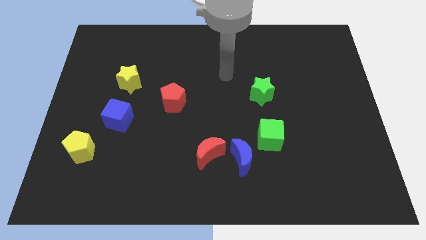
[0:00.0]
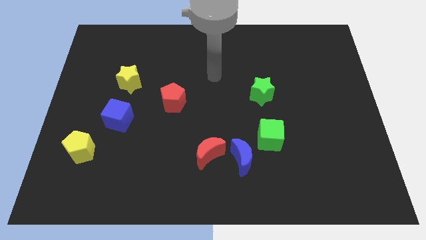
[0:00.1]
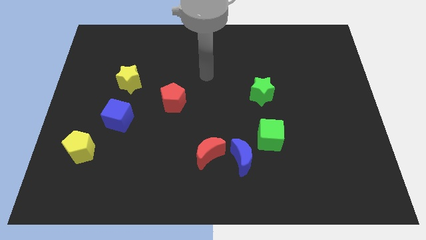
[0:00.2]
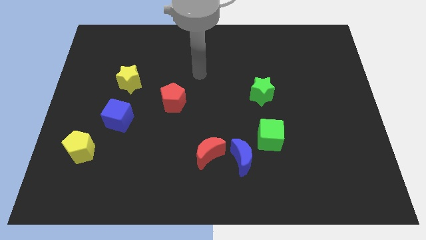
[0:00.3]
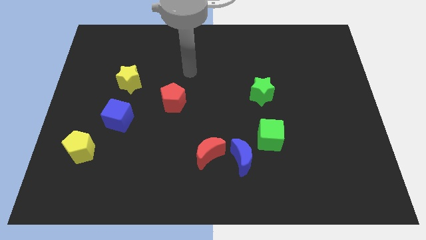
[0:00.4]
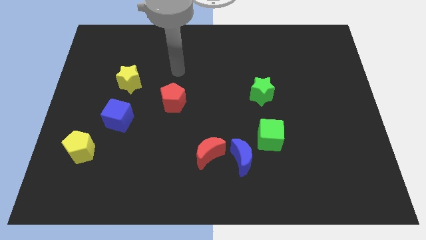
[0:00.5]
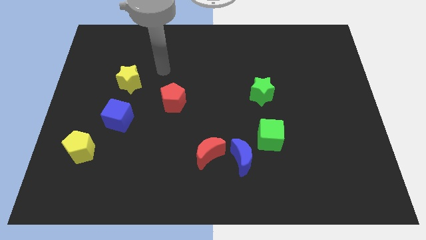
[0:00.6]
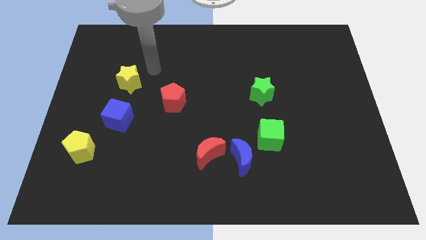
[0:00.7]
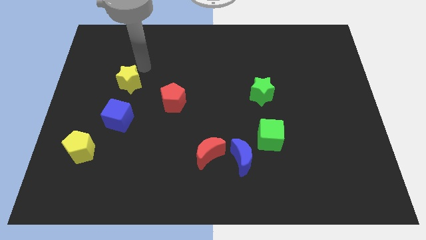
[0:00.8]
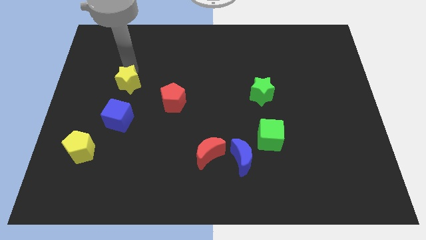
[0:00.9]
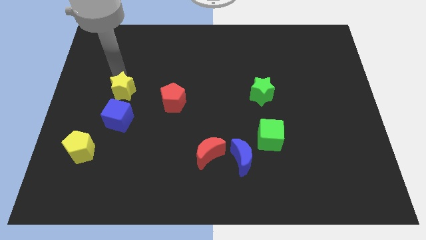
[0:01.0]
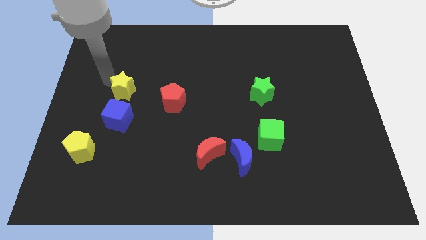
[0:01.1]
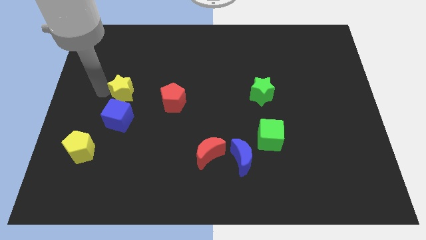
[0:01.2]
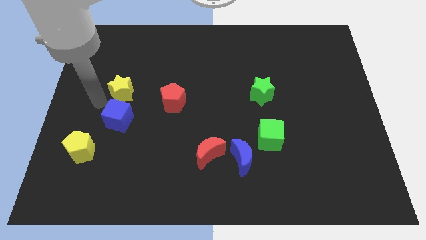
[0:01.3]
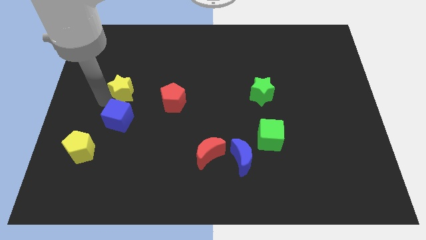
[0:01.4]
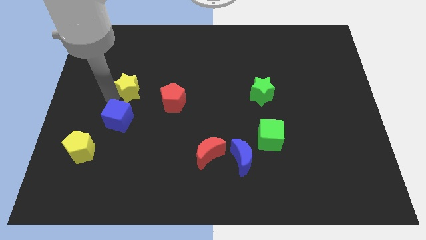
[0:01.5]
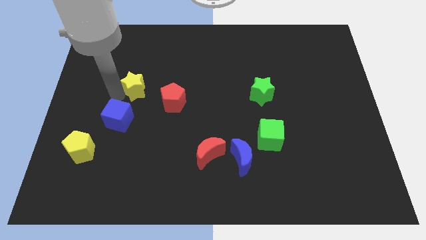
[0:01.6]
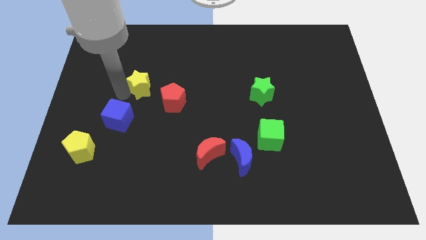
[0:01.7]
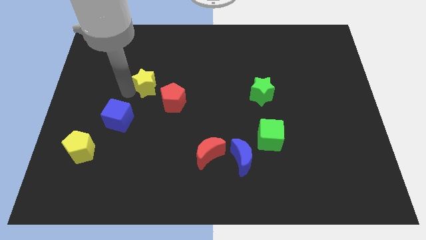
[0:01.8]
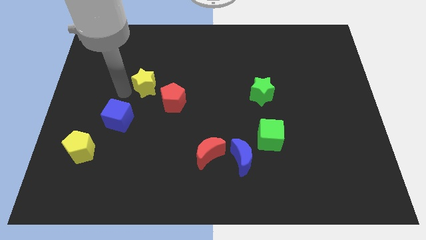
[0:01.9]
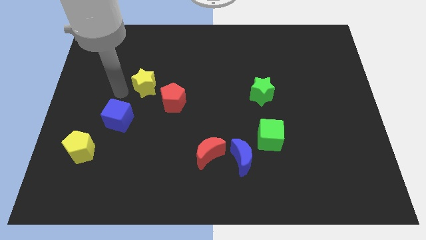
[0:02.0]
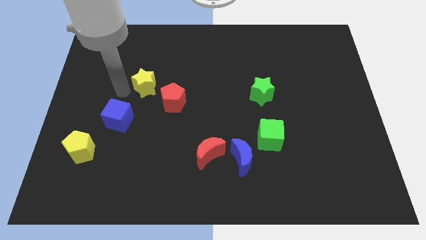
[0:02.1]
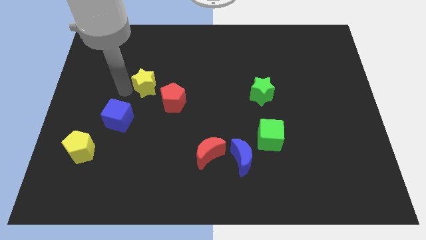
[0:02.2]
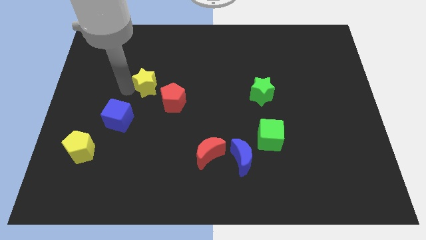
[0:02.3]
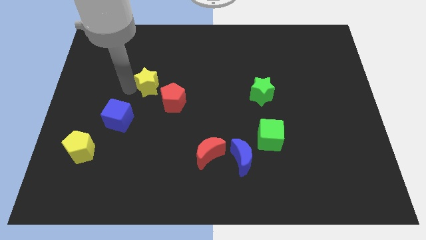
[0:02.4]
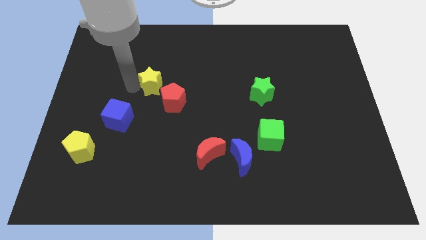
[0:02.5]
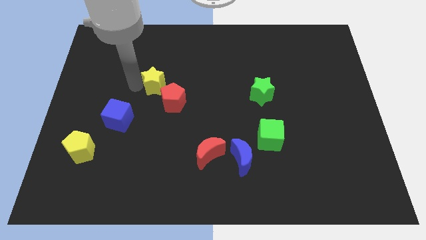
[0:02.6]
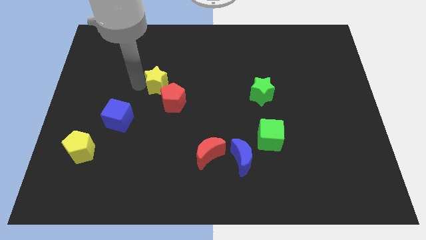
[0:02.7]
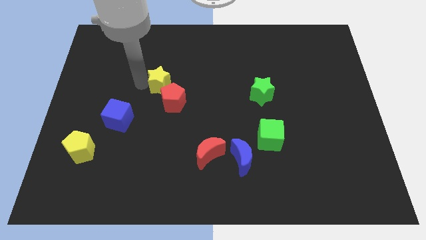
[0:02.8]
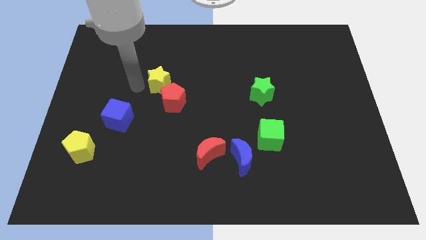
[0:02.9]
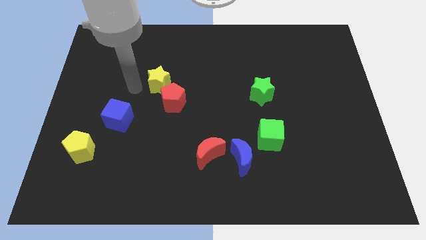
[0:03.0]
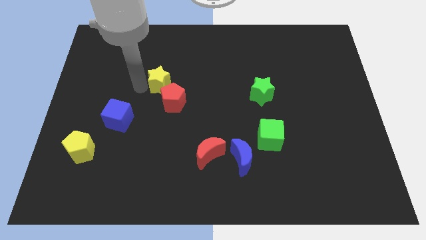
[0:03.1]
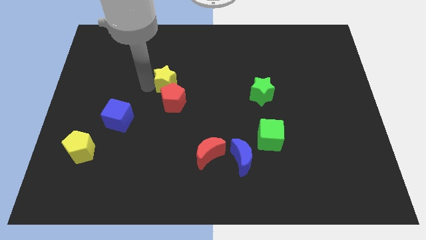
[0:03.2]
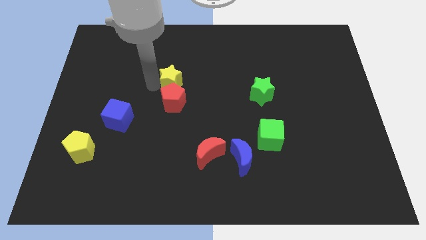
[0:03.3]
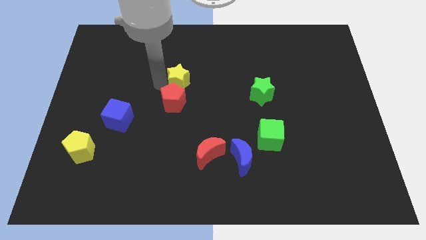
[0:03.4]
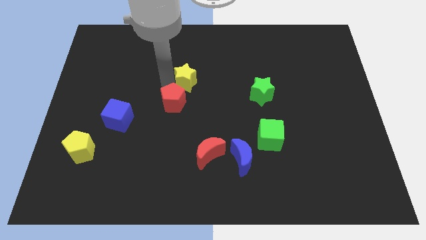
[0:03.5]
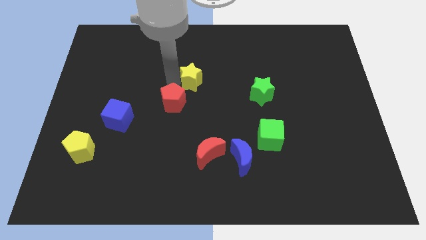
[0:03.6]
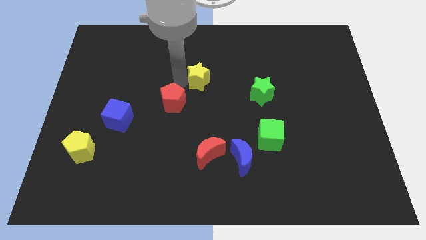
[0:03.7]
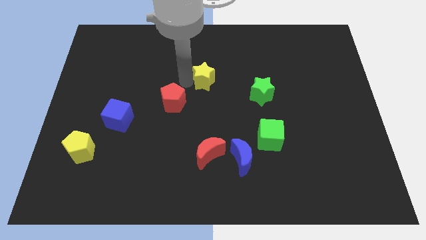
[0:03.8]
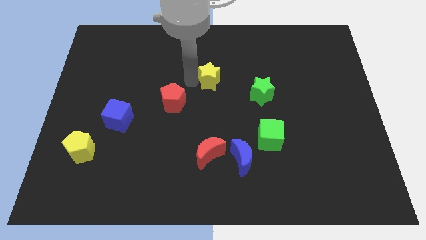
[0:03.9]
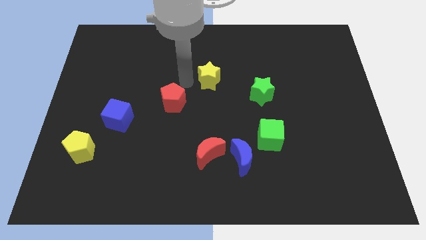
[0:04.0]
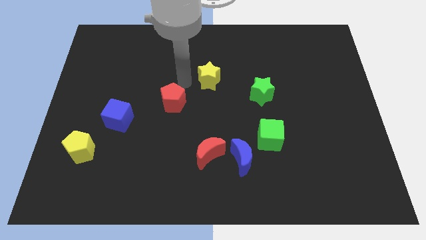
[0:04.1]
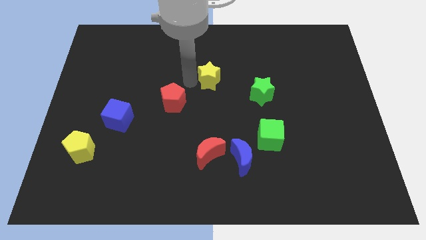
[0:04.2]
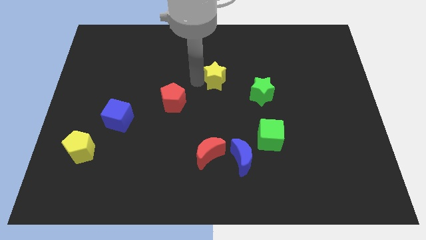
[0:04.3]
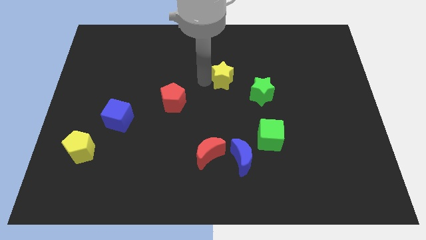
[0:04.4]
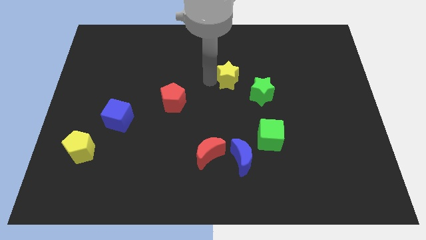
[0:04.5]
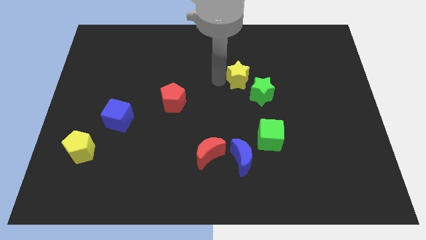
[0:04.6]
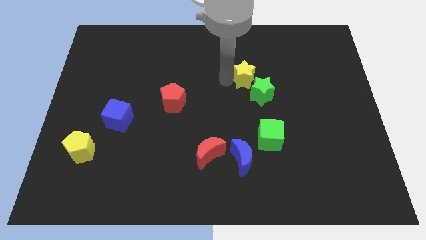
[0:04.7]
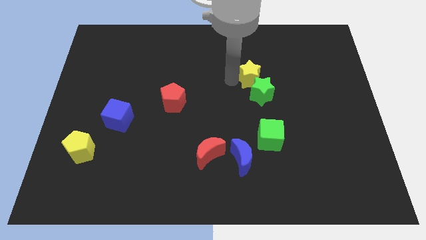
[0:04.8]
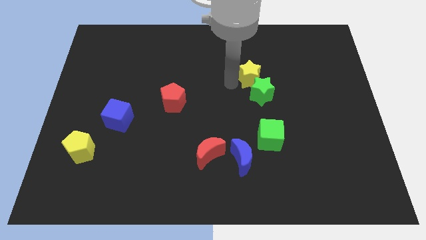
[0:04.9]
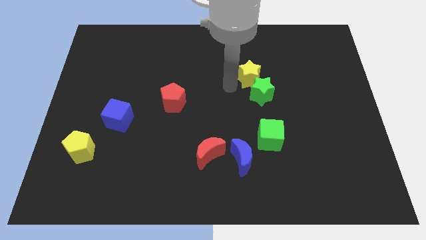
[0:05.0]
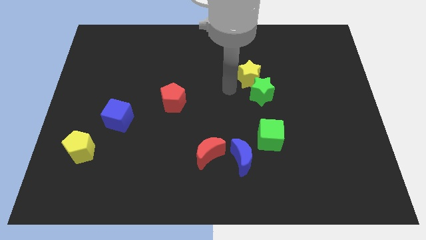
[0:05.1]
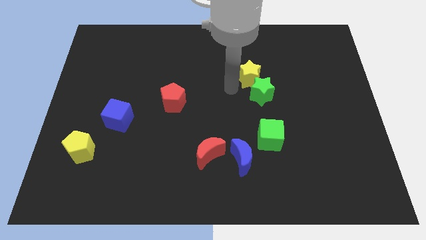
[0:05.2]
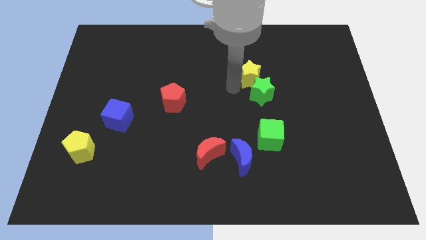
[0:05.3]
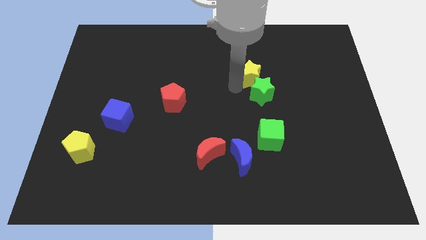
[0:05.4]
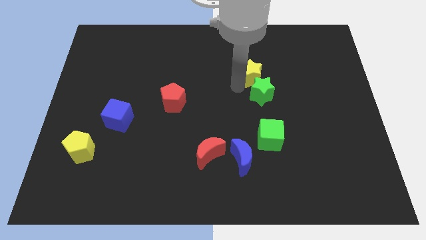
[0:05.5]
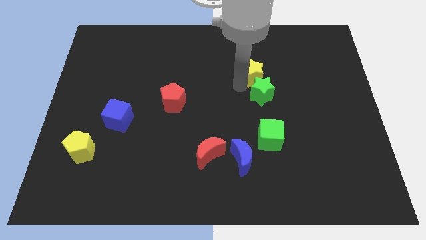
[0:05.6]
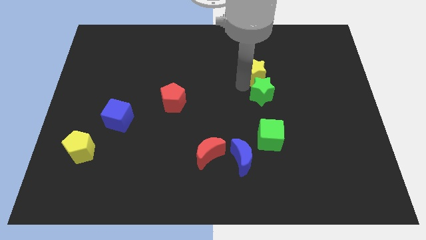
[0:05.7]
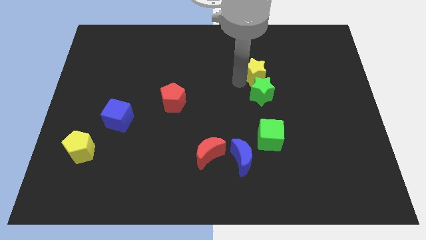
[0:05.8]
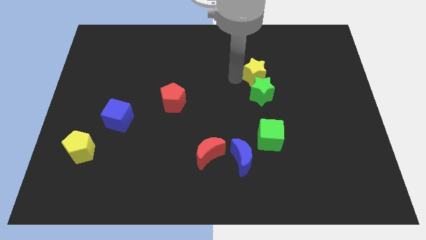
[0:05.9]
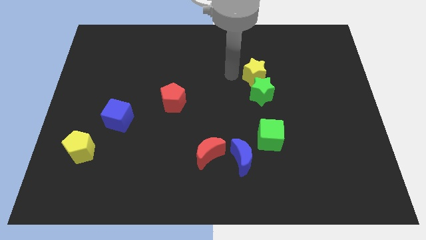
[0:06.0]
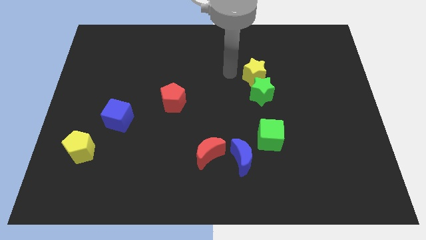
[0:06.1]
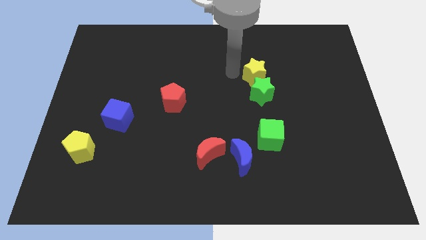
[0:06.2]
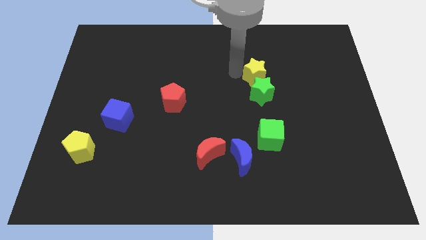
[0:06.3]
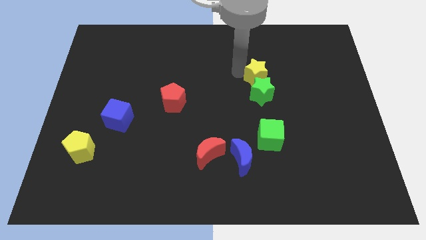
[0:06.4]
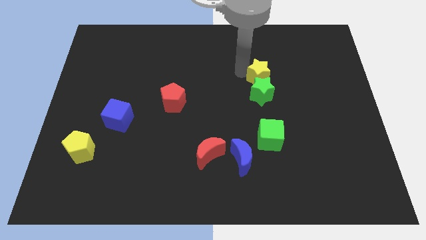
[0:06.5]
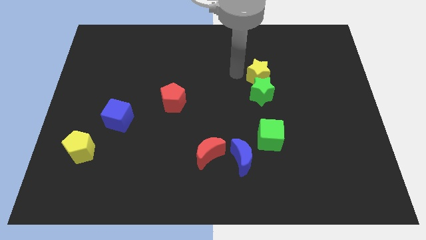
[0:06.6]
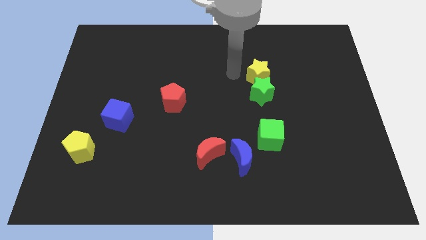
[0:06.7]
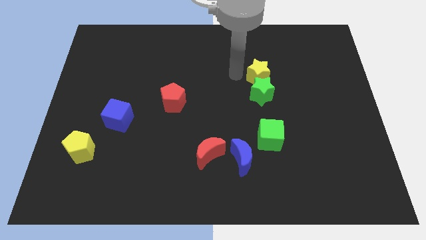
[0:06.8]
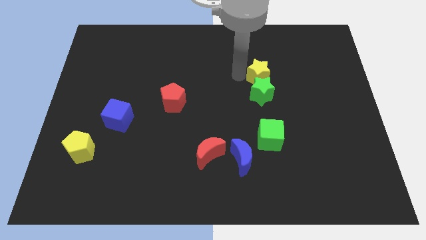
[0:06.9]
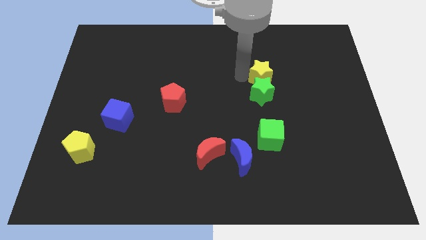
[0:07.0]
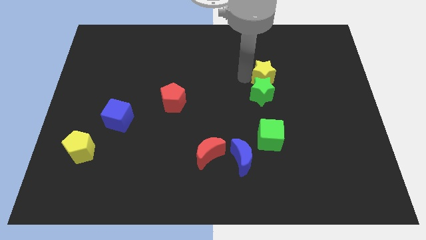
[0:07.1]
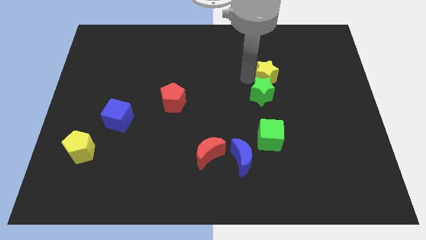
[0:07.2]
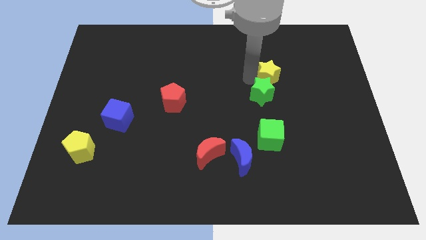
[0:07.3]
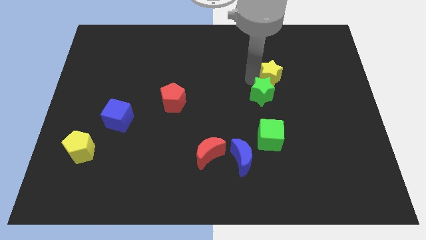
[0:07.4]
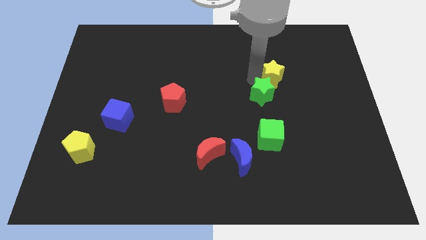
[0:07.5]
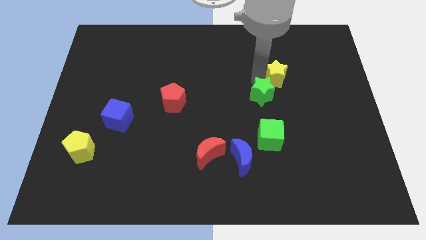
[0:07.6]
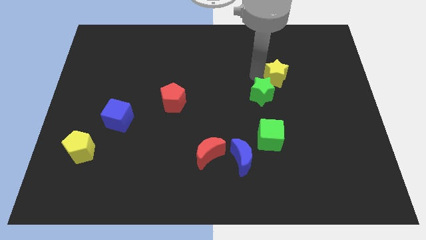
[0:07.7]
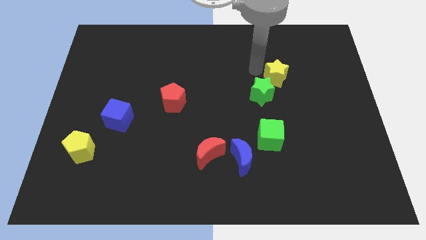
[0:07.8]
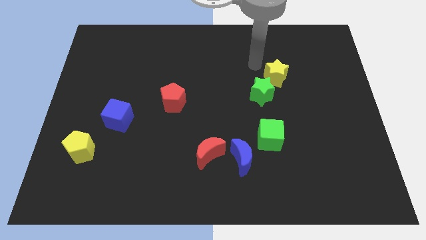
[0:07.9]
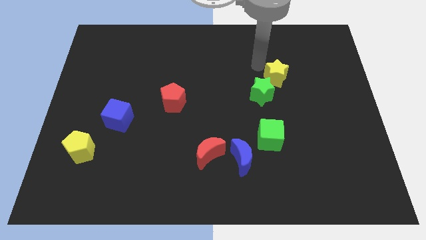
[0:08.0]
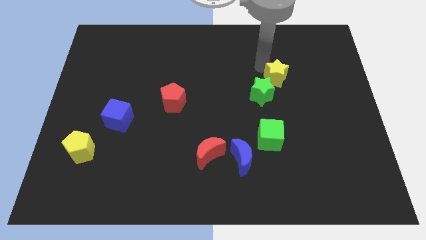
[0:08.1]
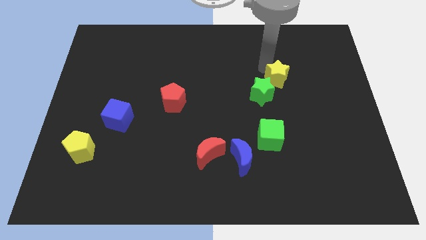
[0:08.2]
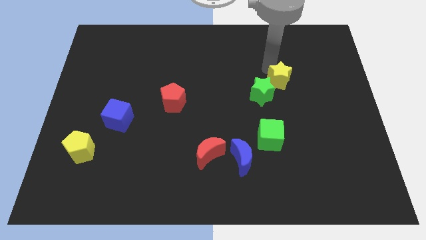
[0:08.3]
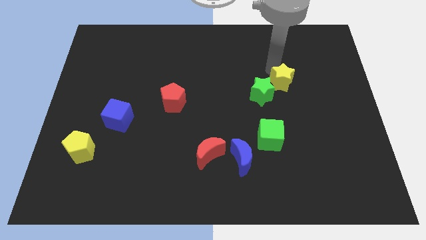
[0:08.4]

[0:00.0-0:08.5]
push the yellow star to the right side of the green star
